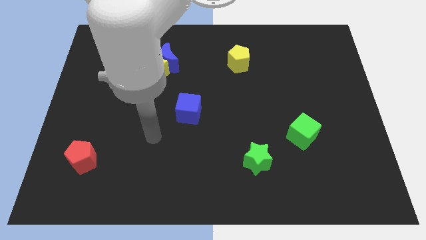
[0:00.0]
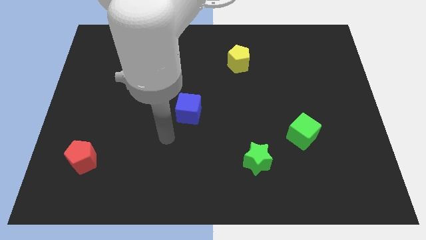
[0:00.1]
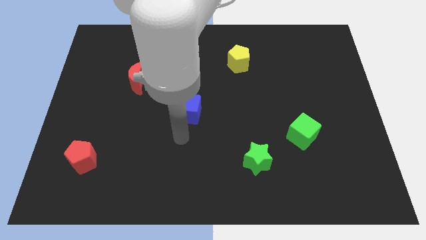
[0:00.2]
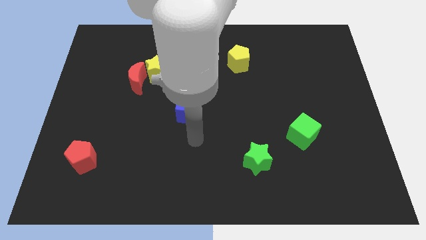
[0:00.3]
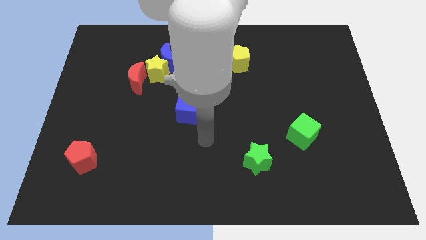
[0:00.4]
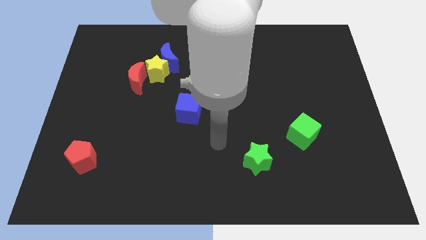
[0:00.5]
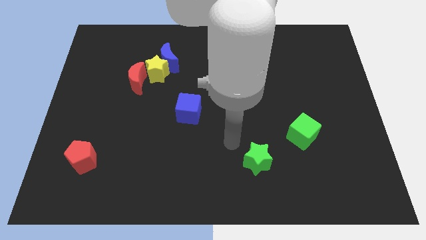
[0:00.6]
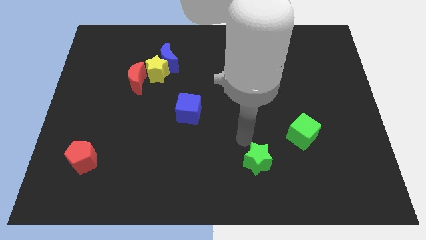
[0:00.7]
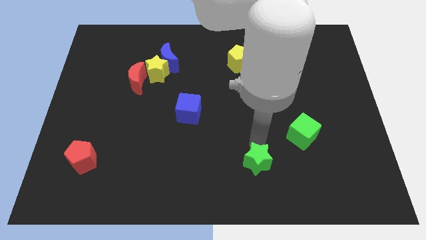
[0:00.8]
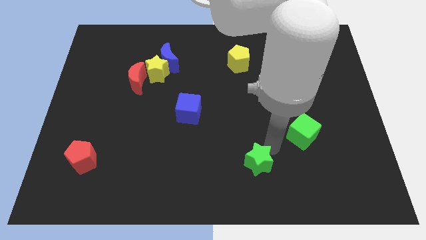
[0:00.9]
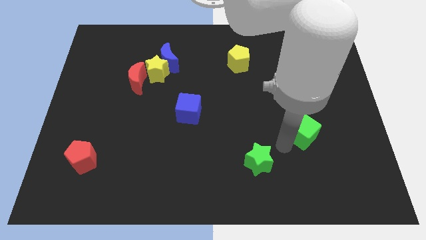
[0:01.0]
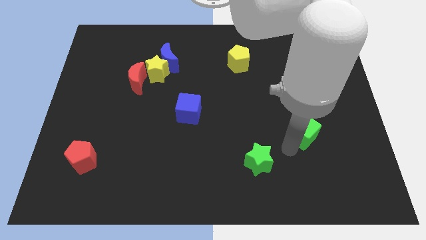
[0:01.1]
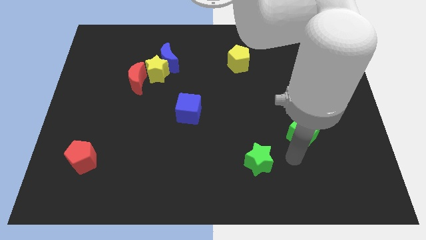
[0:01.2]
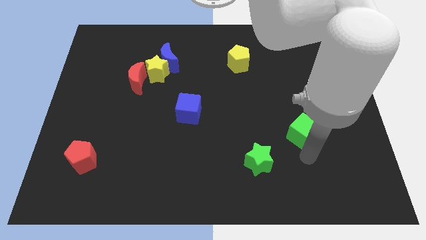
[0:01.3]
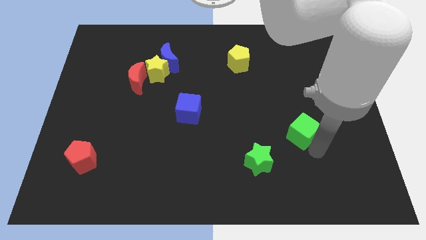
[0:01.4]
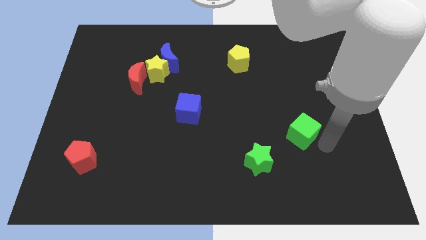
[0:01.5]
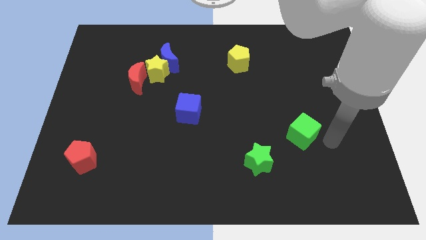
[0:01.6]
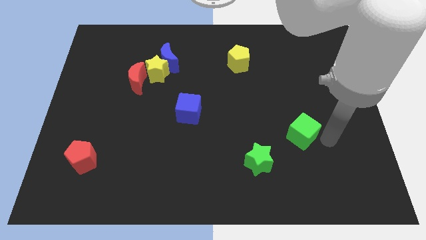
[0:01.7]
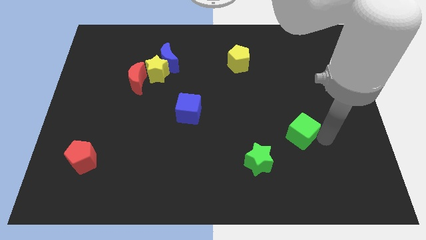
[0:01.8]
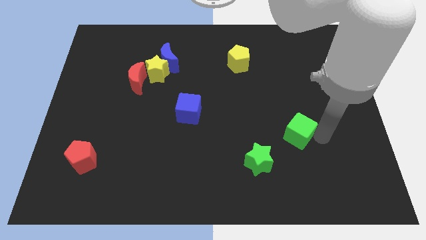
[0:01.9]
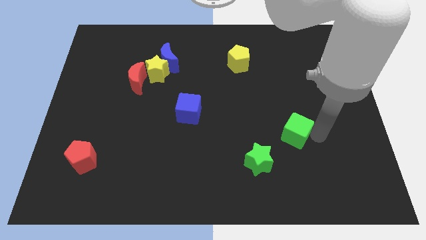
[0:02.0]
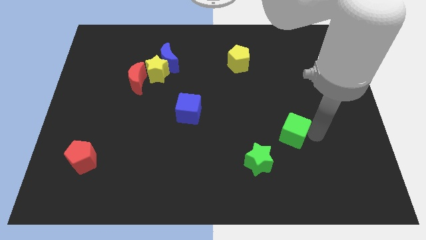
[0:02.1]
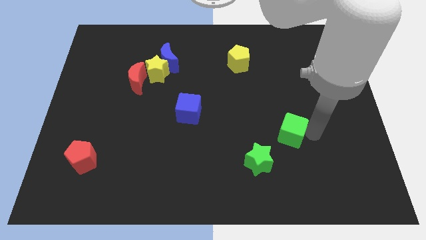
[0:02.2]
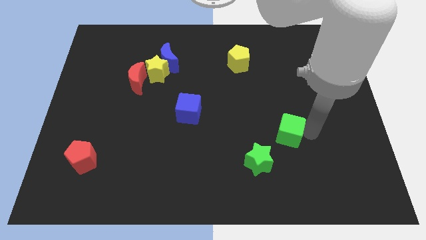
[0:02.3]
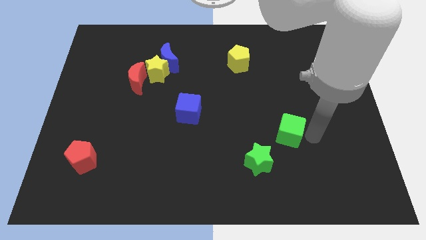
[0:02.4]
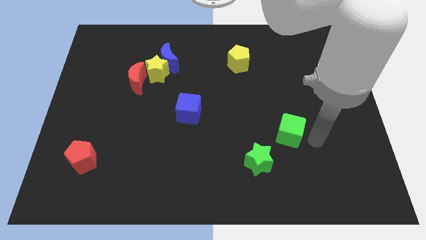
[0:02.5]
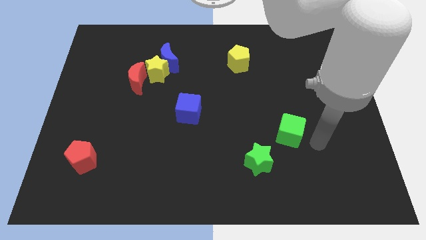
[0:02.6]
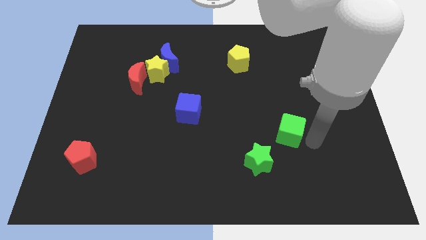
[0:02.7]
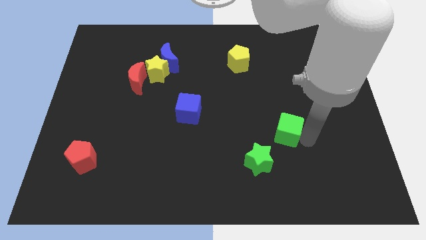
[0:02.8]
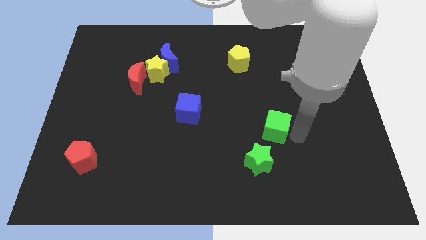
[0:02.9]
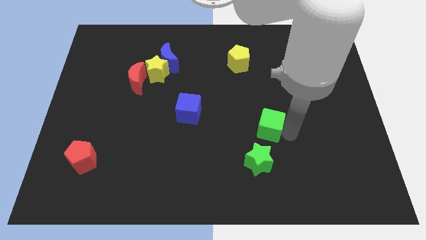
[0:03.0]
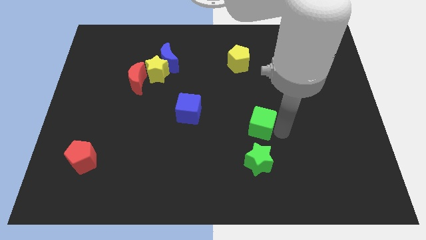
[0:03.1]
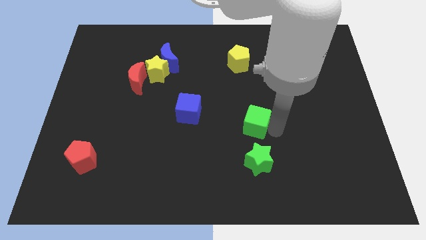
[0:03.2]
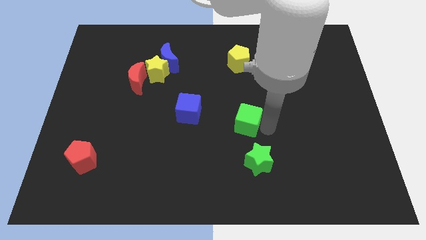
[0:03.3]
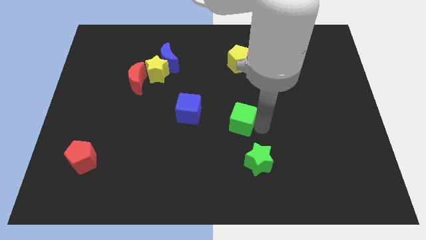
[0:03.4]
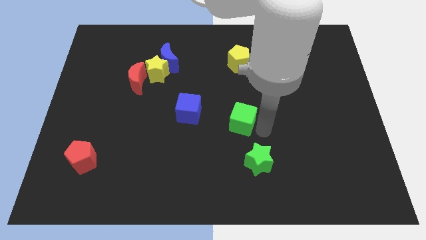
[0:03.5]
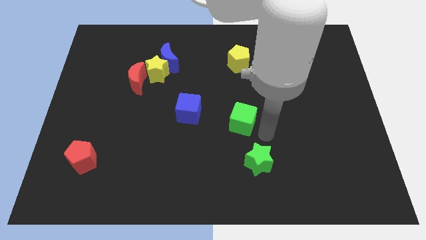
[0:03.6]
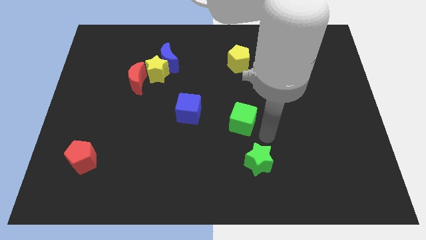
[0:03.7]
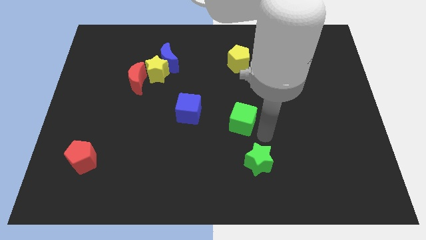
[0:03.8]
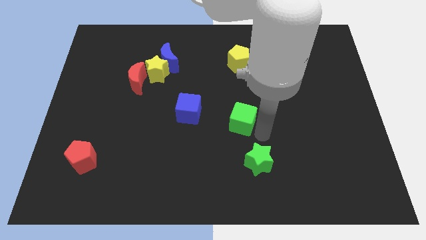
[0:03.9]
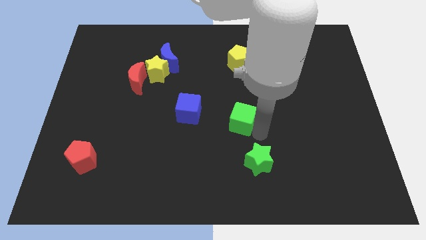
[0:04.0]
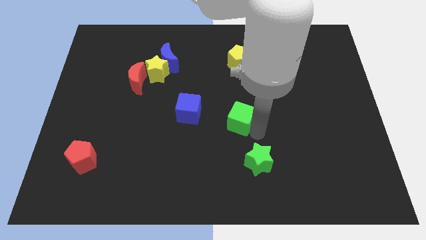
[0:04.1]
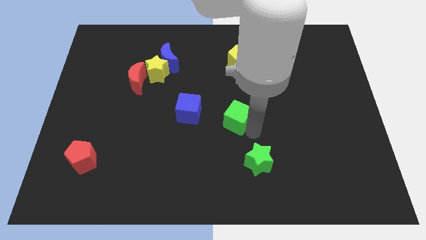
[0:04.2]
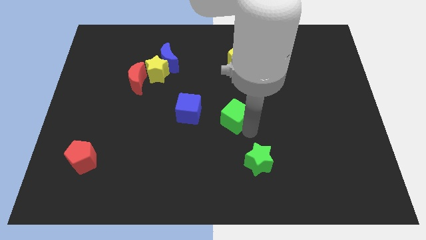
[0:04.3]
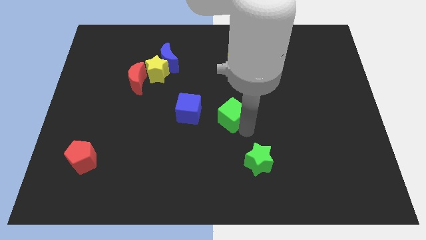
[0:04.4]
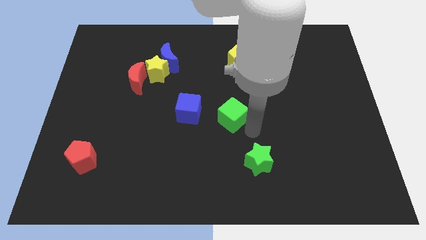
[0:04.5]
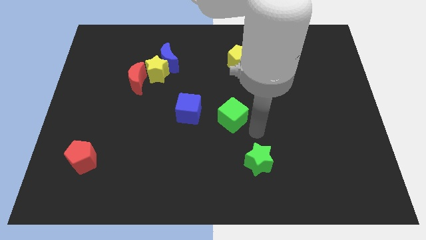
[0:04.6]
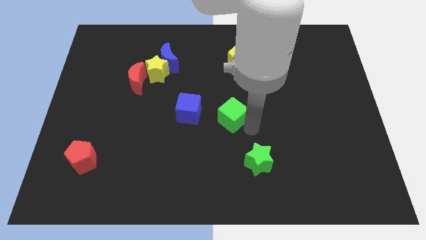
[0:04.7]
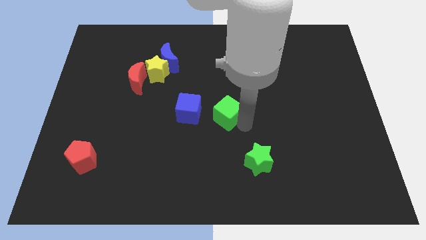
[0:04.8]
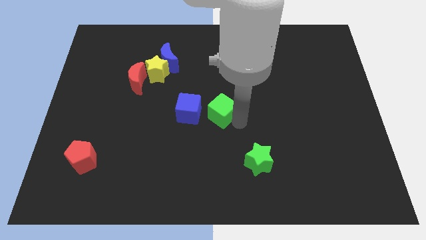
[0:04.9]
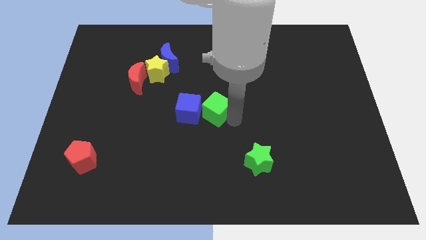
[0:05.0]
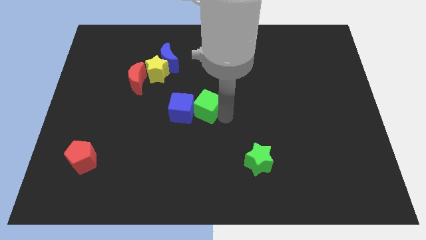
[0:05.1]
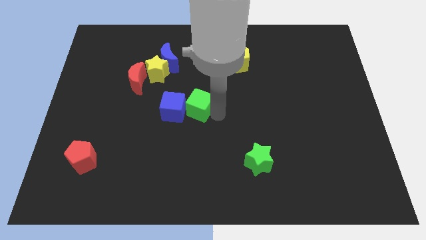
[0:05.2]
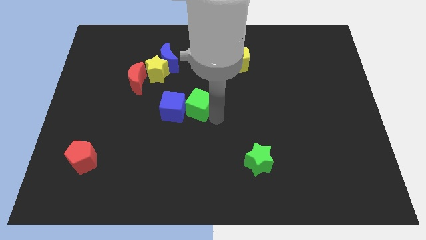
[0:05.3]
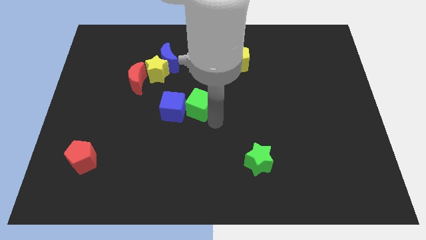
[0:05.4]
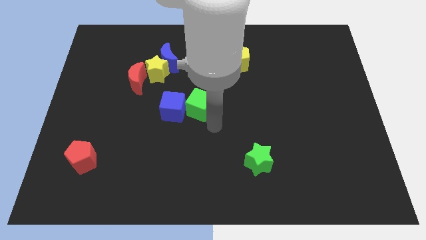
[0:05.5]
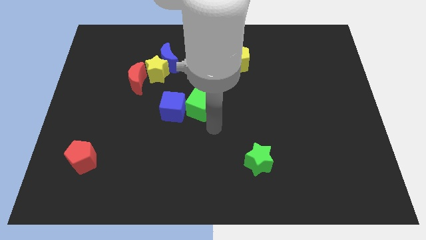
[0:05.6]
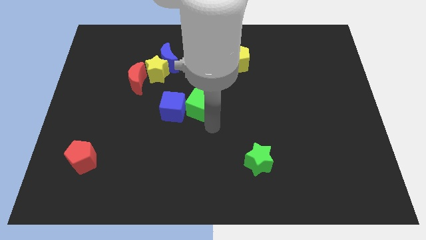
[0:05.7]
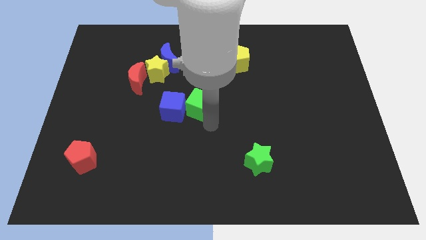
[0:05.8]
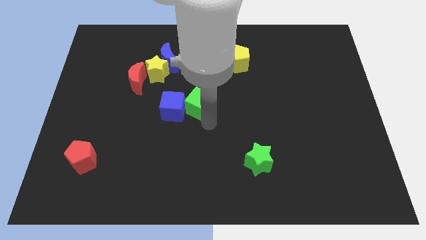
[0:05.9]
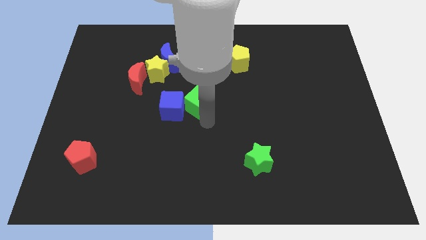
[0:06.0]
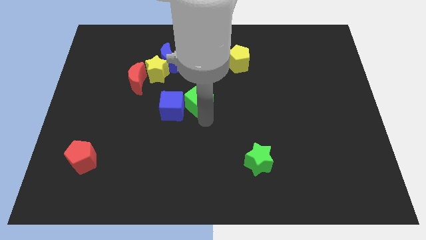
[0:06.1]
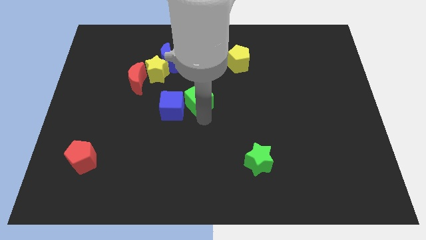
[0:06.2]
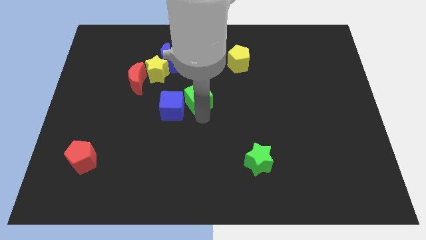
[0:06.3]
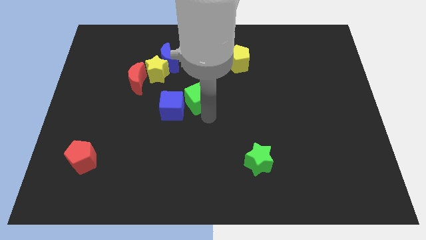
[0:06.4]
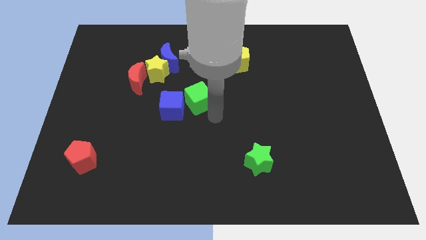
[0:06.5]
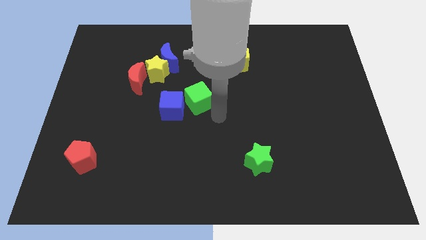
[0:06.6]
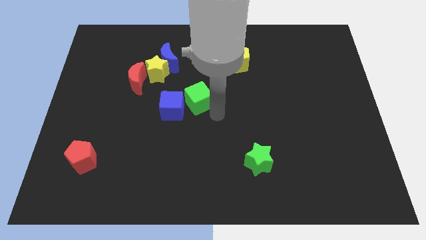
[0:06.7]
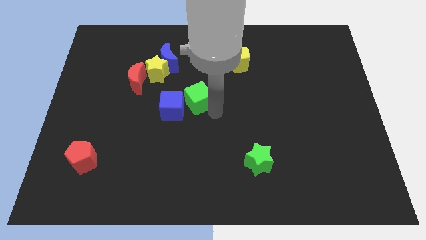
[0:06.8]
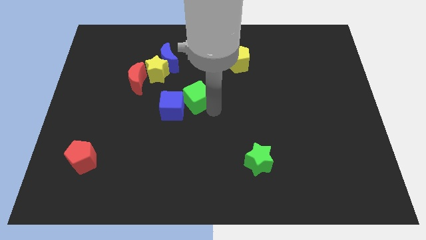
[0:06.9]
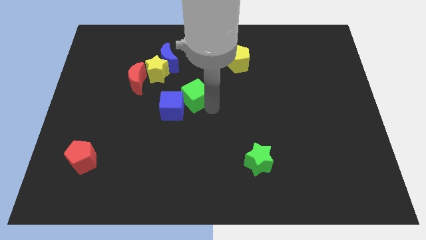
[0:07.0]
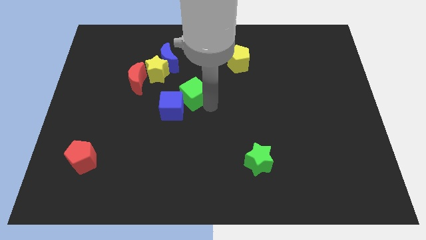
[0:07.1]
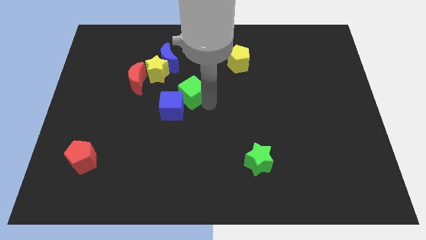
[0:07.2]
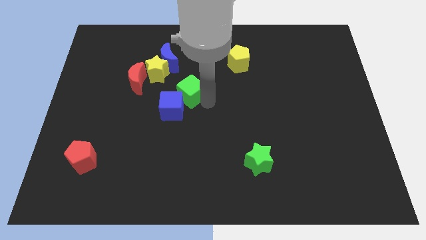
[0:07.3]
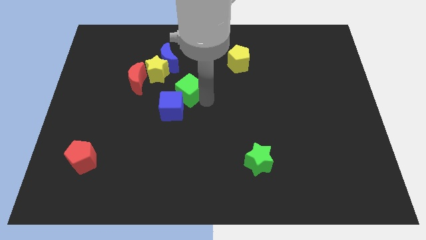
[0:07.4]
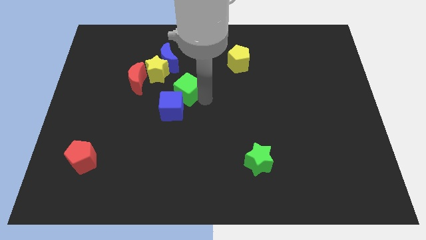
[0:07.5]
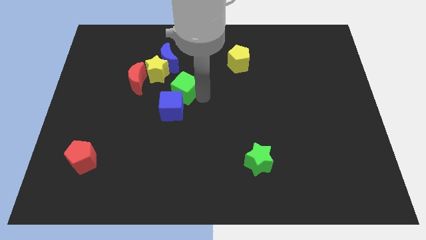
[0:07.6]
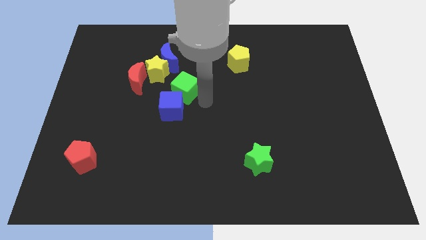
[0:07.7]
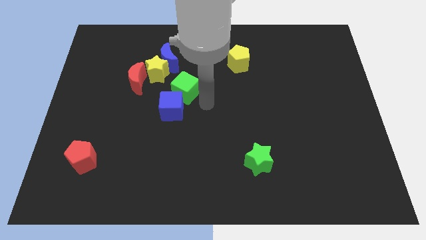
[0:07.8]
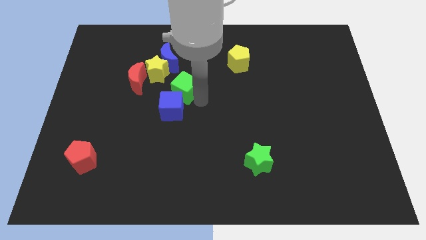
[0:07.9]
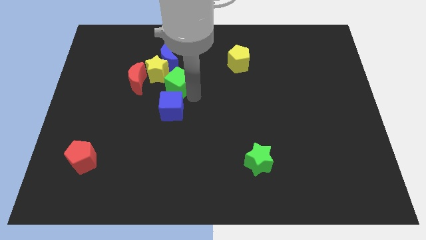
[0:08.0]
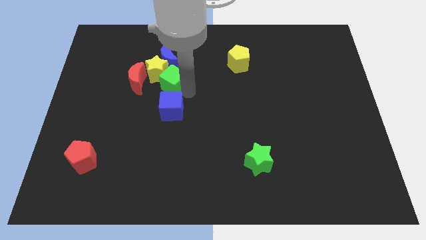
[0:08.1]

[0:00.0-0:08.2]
slide the green cube towards the yellow star
